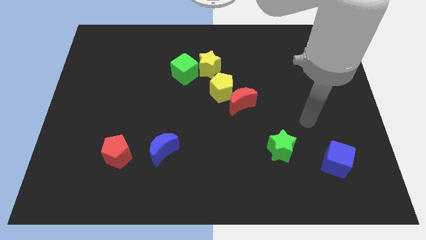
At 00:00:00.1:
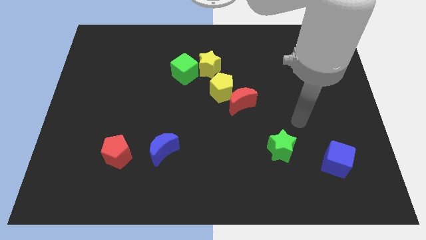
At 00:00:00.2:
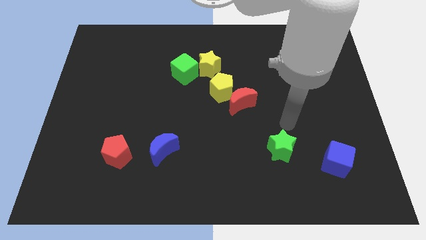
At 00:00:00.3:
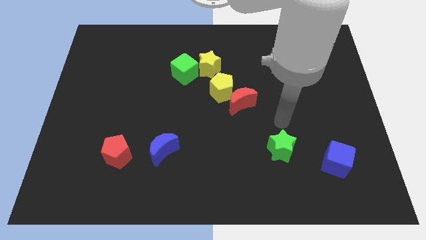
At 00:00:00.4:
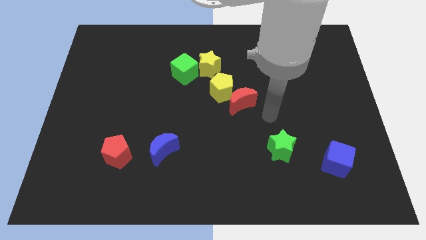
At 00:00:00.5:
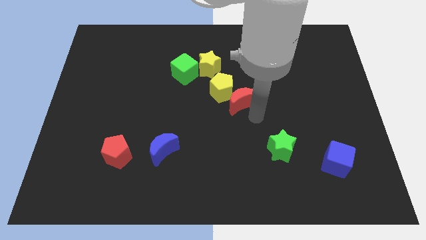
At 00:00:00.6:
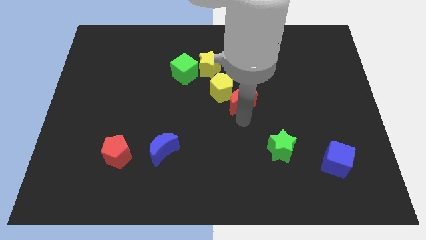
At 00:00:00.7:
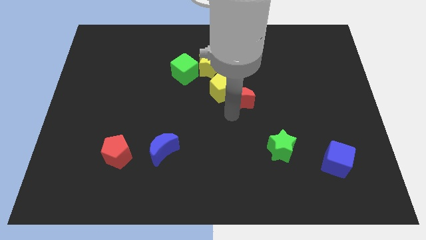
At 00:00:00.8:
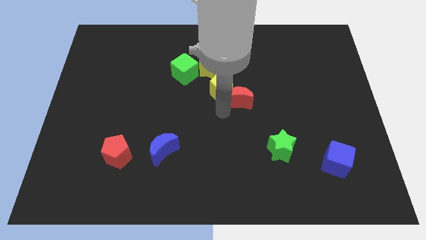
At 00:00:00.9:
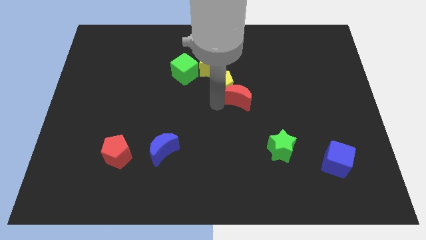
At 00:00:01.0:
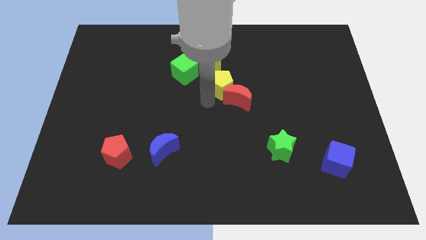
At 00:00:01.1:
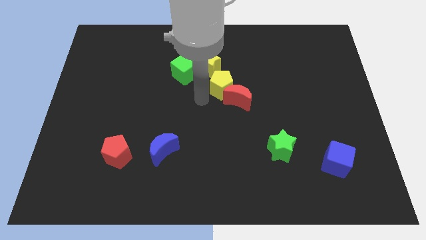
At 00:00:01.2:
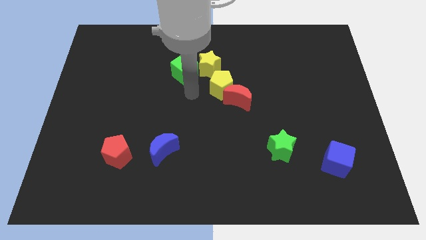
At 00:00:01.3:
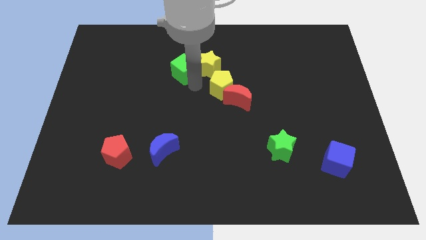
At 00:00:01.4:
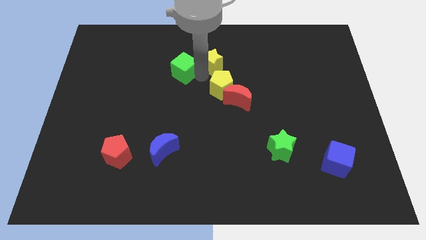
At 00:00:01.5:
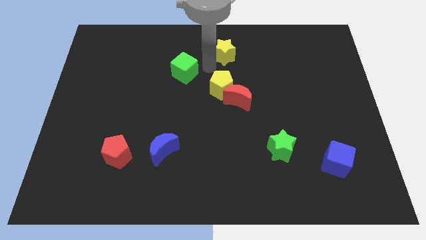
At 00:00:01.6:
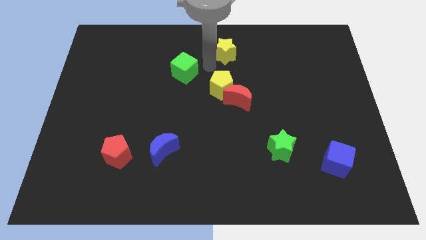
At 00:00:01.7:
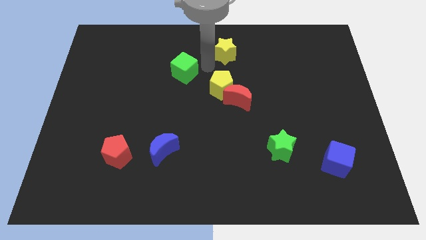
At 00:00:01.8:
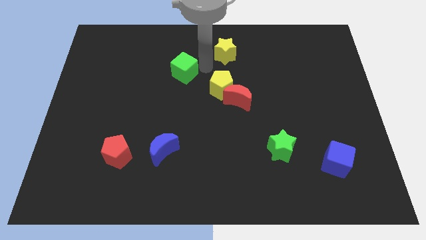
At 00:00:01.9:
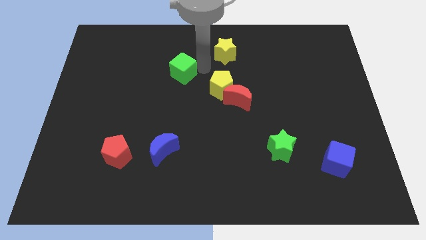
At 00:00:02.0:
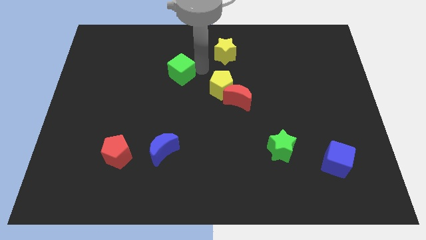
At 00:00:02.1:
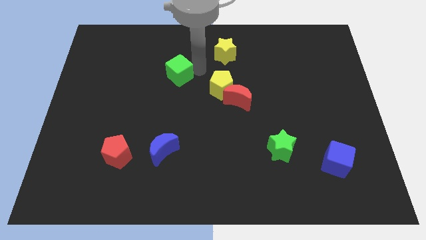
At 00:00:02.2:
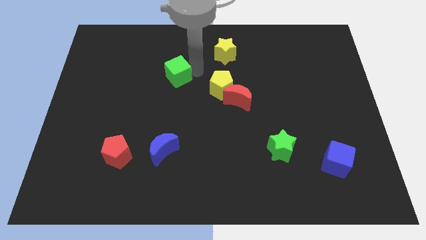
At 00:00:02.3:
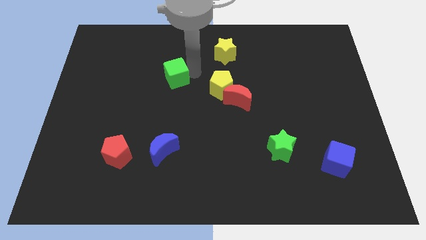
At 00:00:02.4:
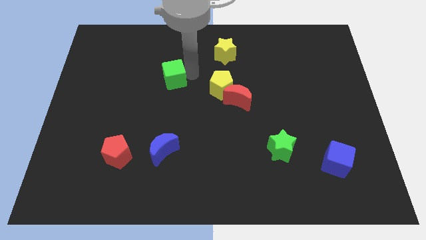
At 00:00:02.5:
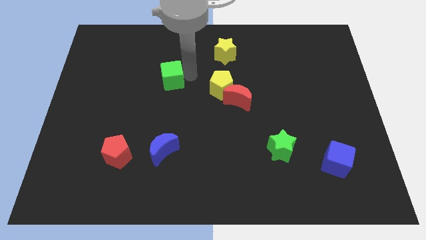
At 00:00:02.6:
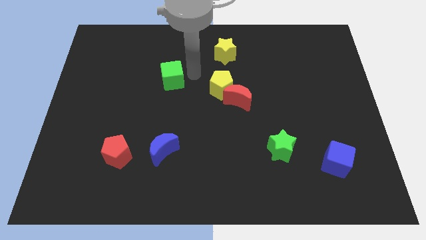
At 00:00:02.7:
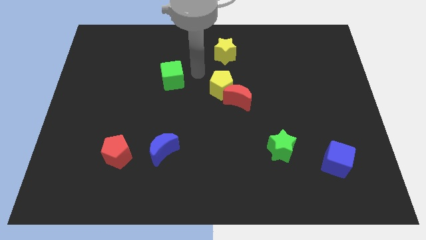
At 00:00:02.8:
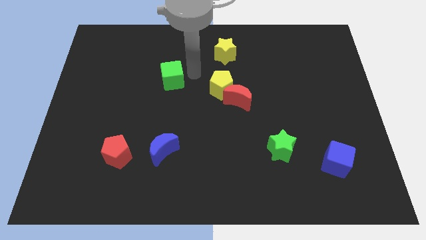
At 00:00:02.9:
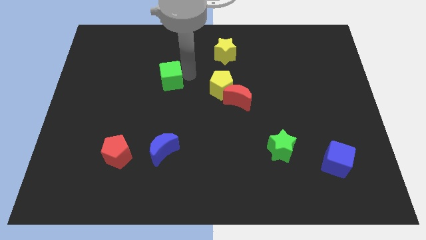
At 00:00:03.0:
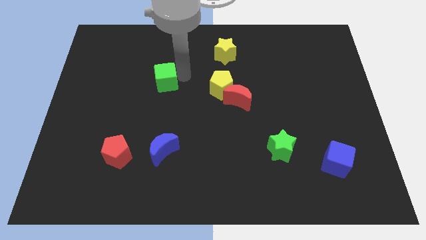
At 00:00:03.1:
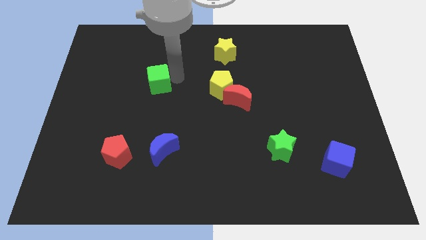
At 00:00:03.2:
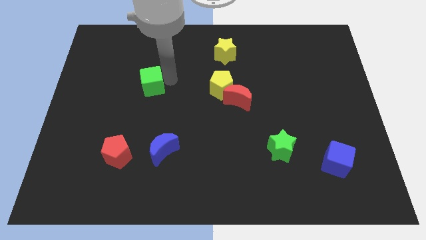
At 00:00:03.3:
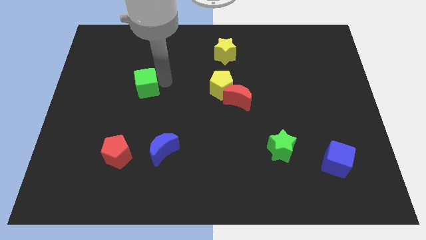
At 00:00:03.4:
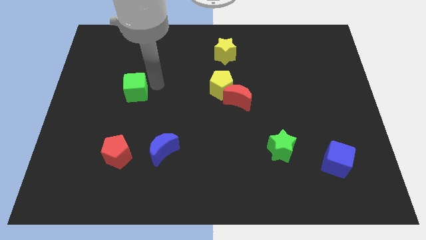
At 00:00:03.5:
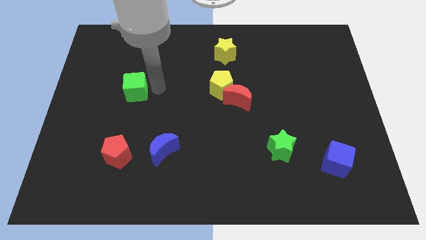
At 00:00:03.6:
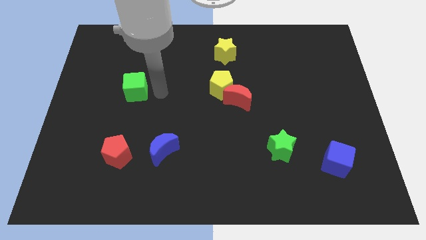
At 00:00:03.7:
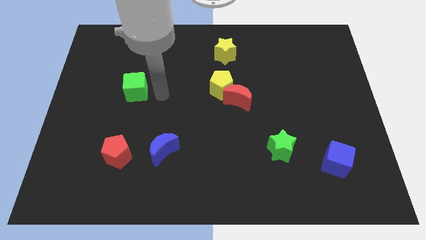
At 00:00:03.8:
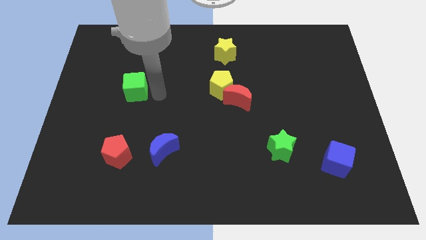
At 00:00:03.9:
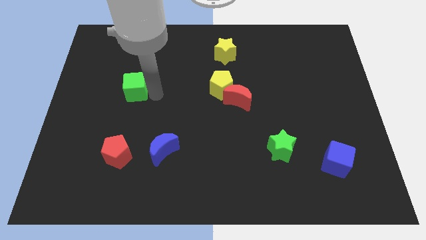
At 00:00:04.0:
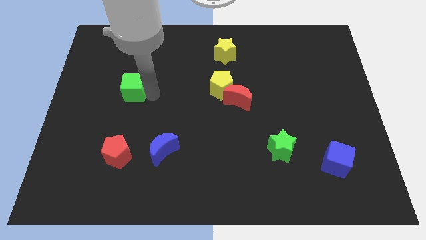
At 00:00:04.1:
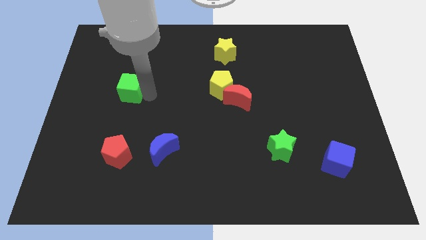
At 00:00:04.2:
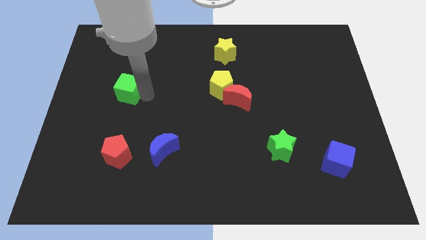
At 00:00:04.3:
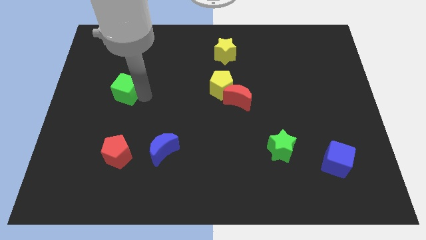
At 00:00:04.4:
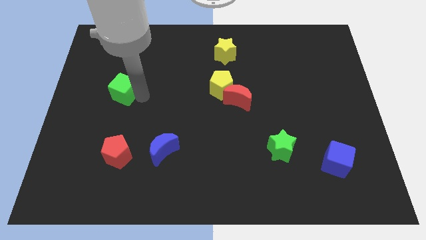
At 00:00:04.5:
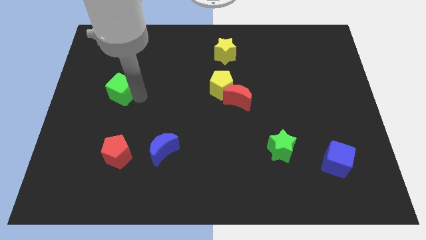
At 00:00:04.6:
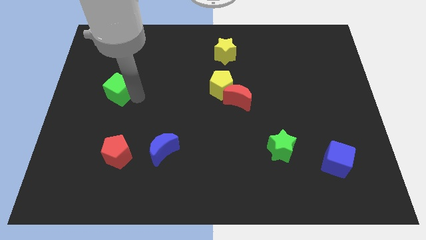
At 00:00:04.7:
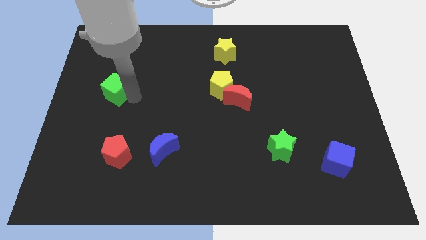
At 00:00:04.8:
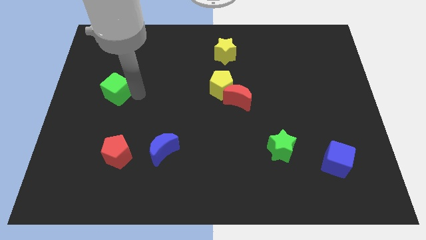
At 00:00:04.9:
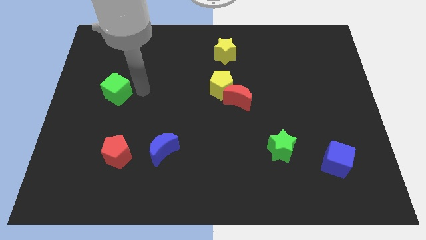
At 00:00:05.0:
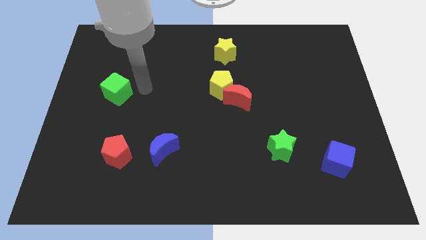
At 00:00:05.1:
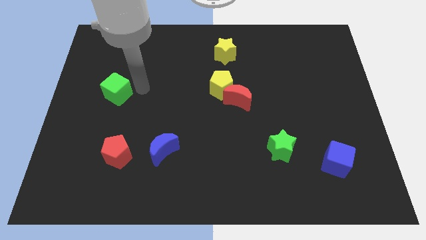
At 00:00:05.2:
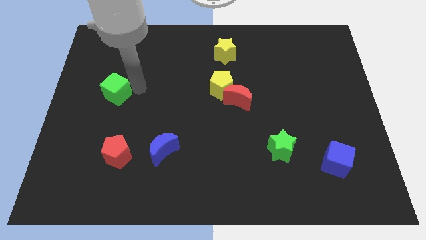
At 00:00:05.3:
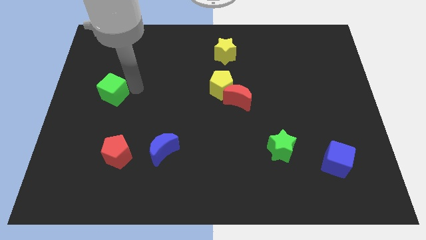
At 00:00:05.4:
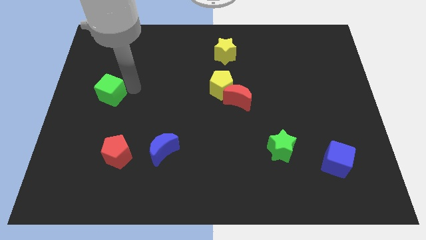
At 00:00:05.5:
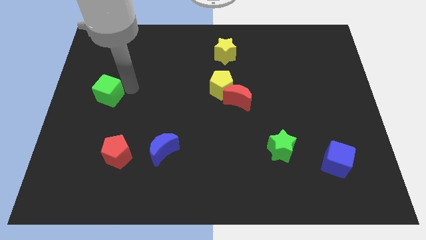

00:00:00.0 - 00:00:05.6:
push the green cube to the center left
